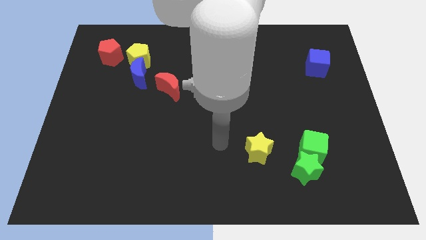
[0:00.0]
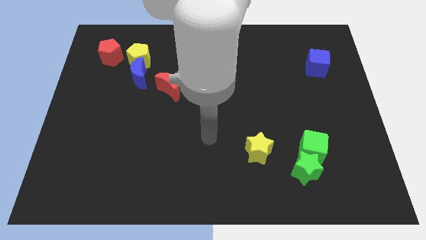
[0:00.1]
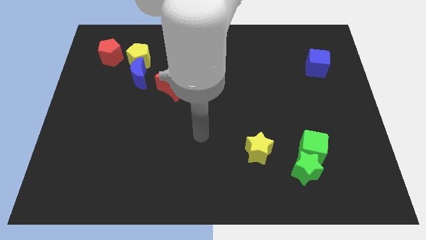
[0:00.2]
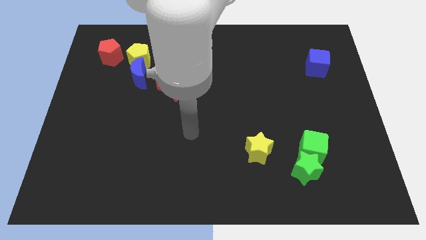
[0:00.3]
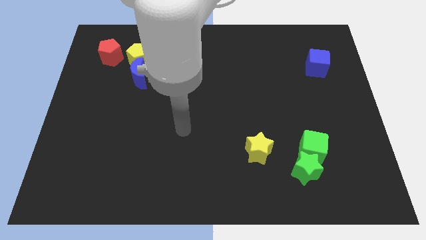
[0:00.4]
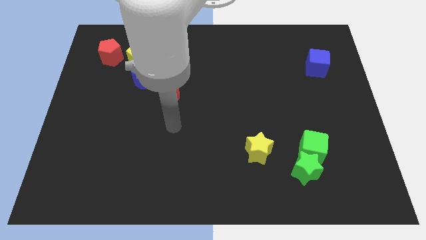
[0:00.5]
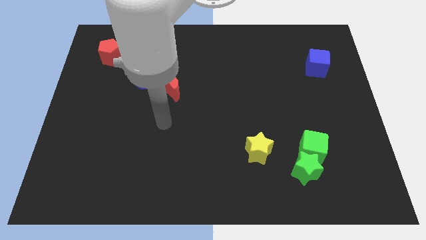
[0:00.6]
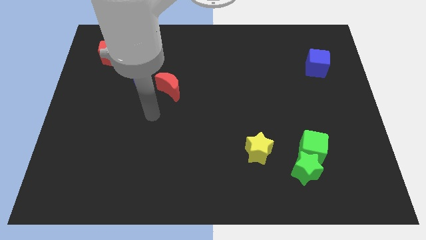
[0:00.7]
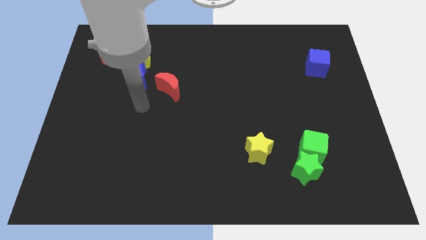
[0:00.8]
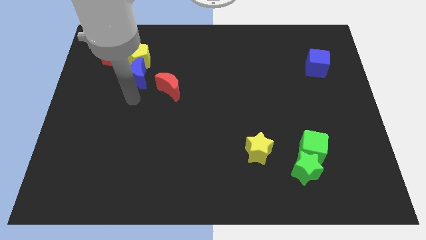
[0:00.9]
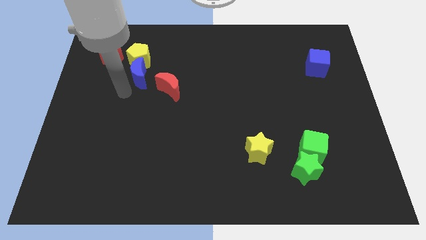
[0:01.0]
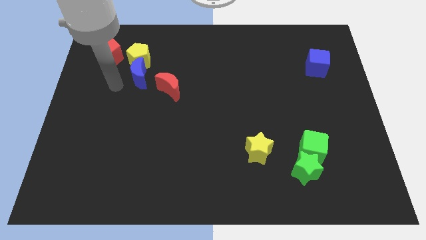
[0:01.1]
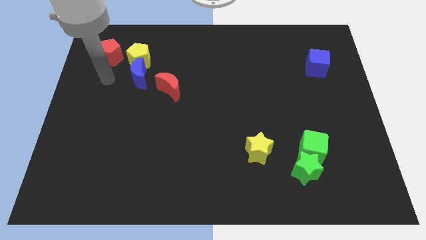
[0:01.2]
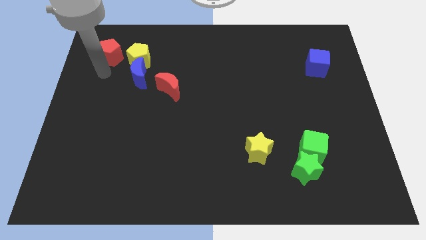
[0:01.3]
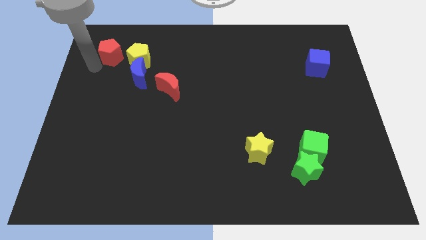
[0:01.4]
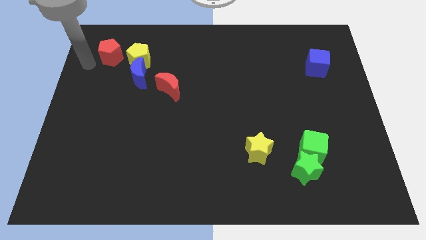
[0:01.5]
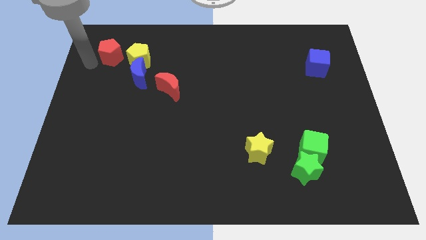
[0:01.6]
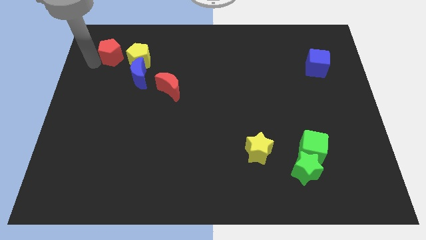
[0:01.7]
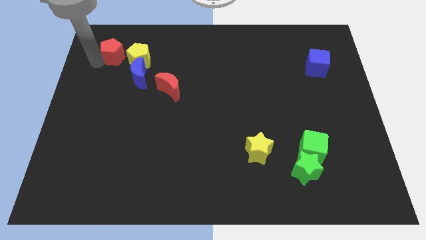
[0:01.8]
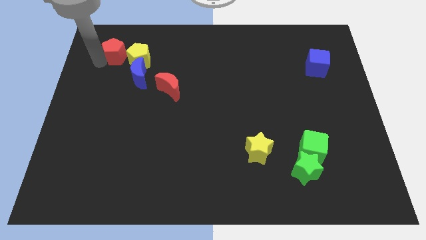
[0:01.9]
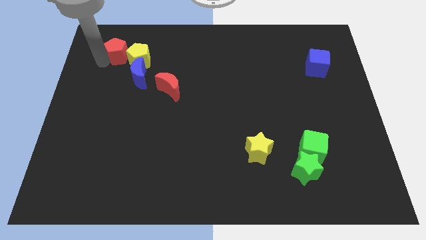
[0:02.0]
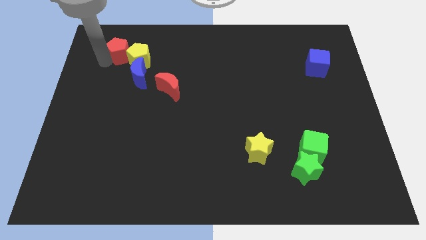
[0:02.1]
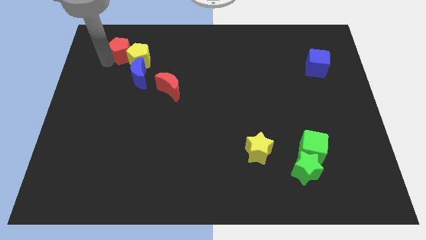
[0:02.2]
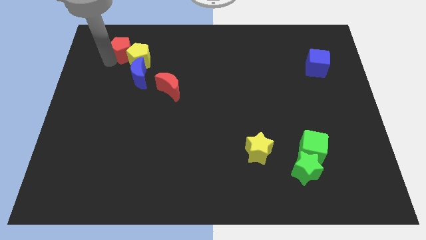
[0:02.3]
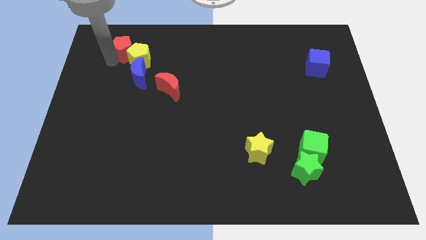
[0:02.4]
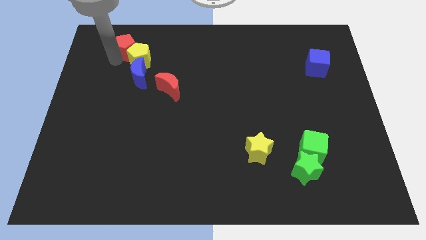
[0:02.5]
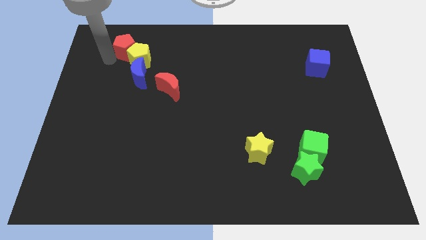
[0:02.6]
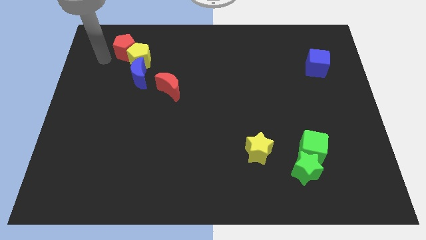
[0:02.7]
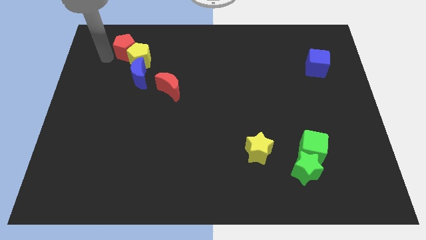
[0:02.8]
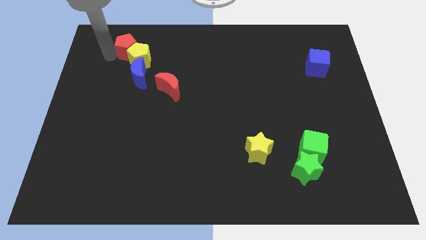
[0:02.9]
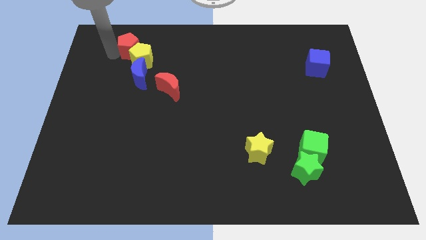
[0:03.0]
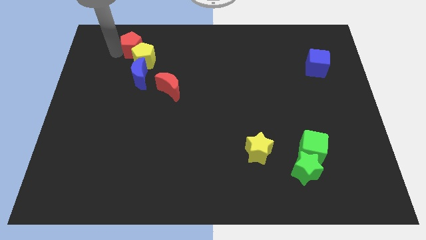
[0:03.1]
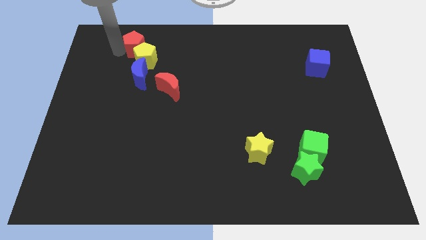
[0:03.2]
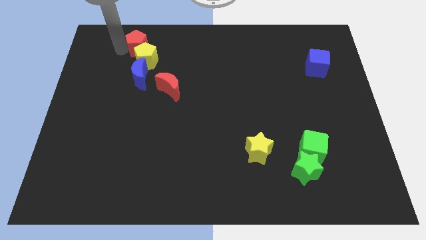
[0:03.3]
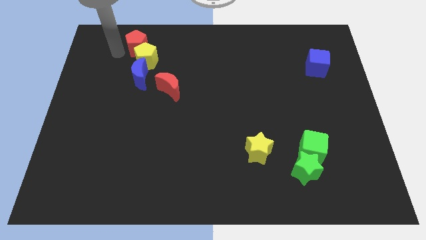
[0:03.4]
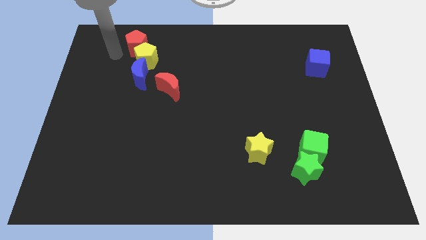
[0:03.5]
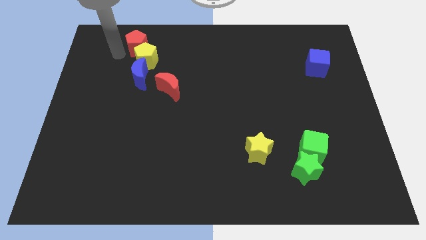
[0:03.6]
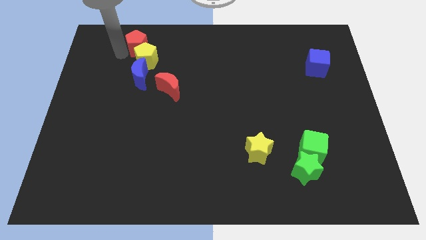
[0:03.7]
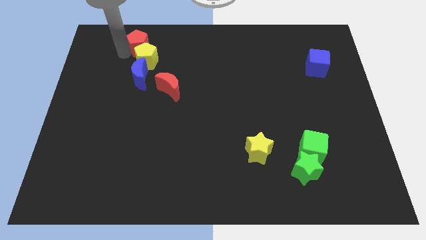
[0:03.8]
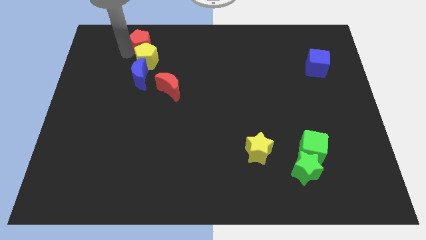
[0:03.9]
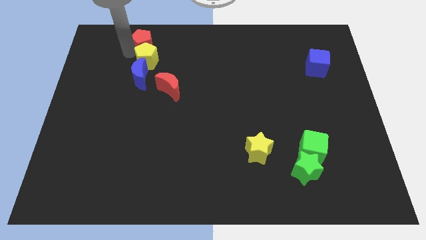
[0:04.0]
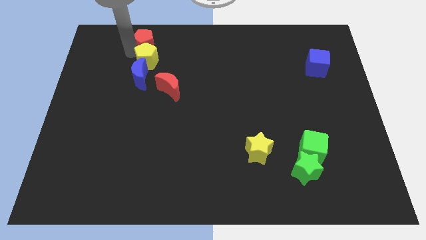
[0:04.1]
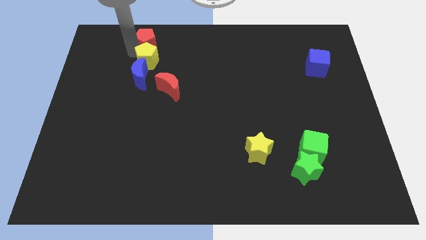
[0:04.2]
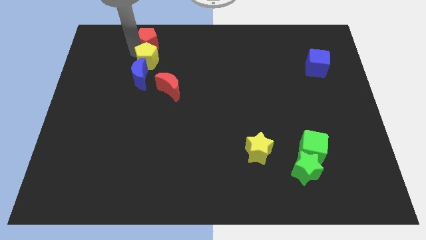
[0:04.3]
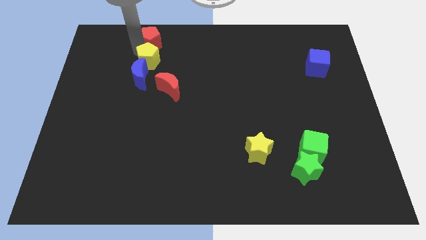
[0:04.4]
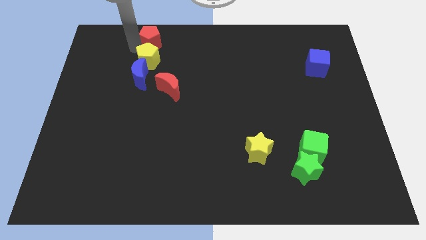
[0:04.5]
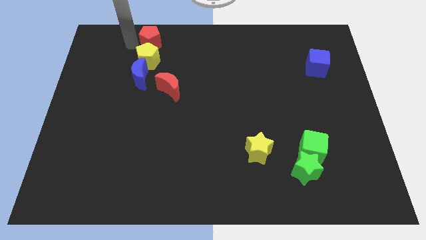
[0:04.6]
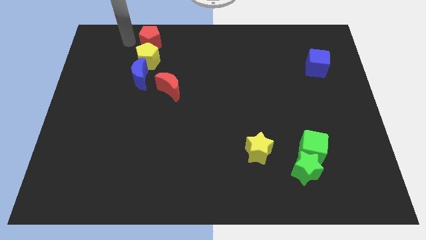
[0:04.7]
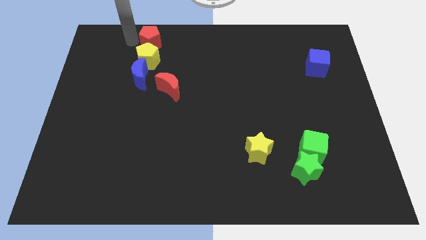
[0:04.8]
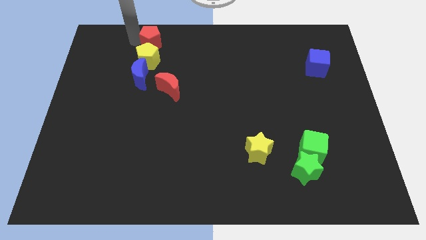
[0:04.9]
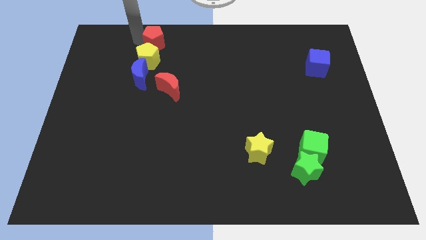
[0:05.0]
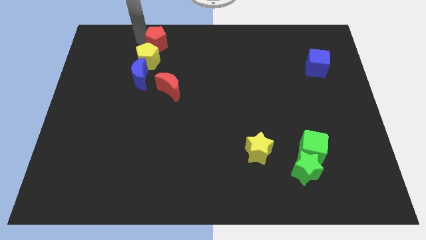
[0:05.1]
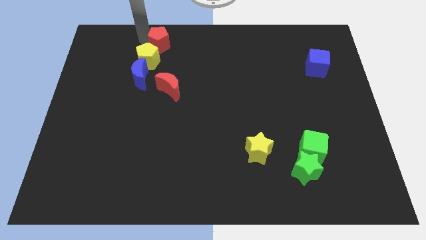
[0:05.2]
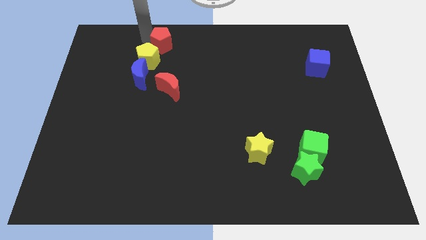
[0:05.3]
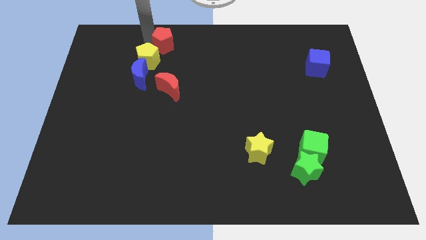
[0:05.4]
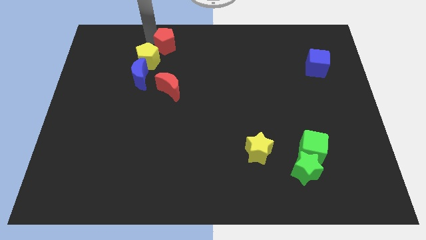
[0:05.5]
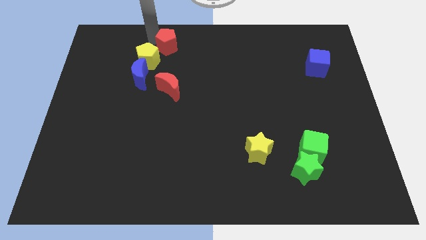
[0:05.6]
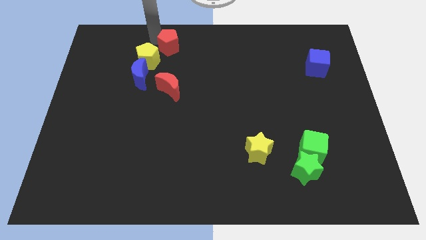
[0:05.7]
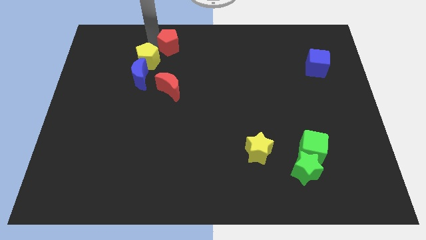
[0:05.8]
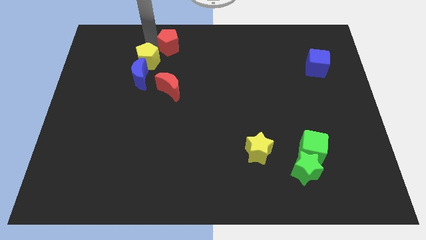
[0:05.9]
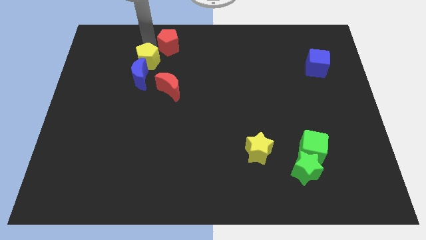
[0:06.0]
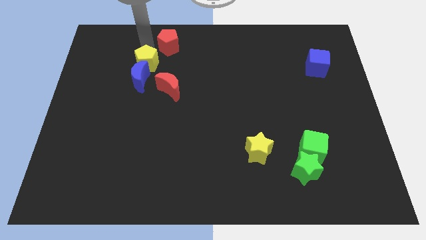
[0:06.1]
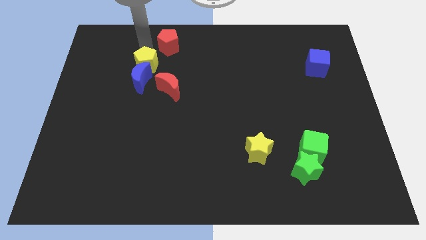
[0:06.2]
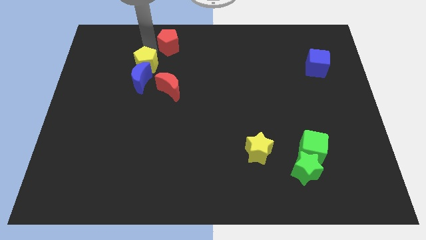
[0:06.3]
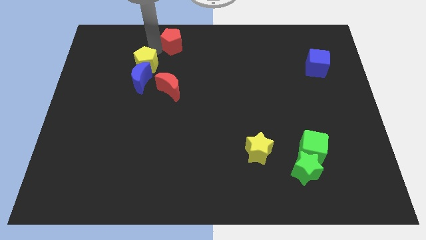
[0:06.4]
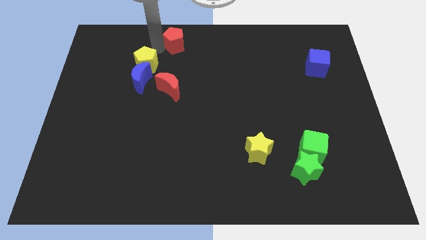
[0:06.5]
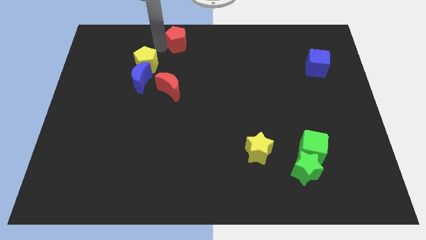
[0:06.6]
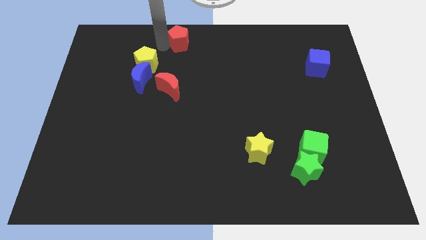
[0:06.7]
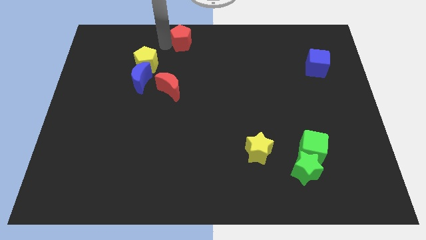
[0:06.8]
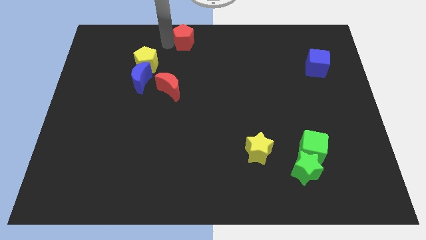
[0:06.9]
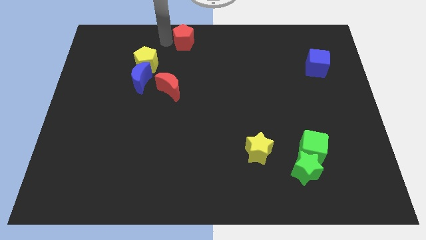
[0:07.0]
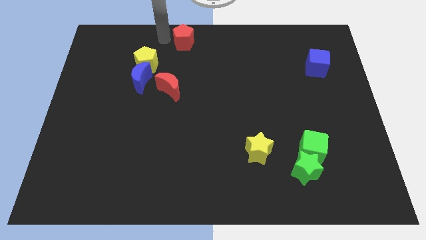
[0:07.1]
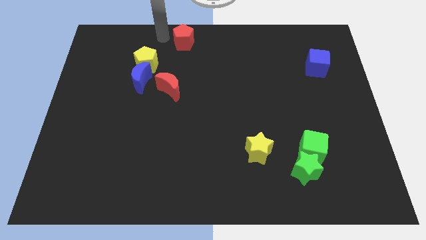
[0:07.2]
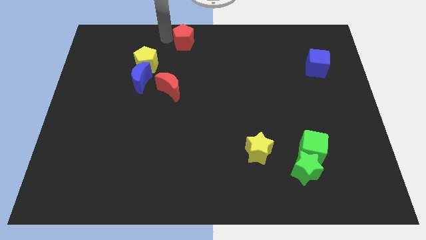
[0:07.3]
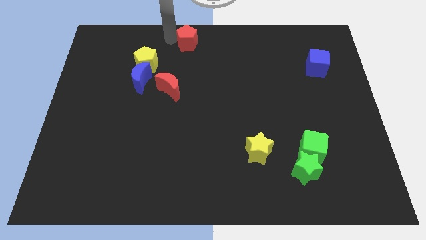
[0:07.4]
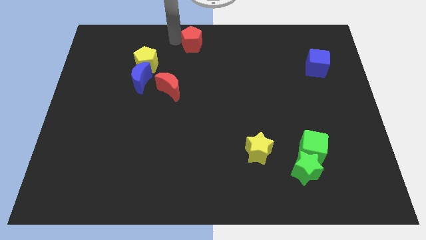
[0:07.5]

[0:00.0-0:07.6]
move the red pentagon right

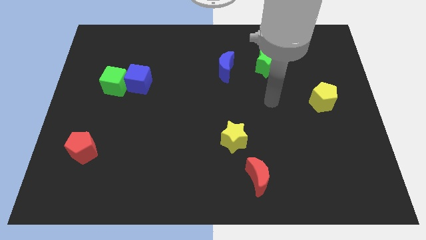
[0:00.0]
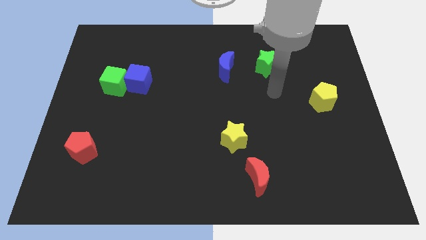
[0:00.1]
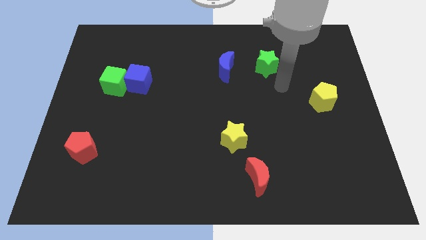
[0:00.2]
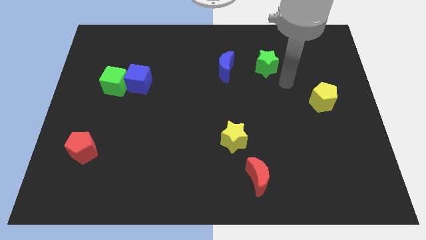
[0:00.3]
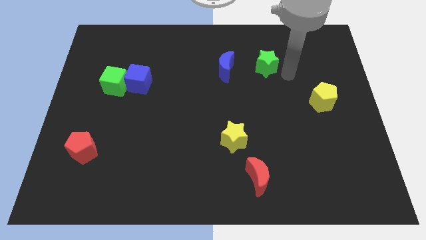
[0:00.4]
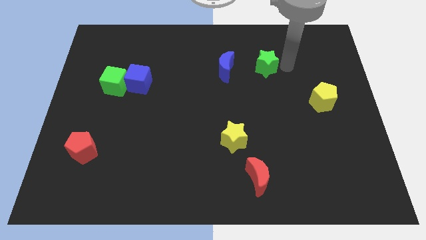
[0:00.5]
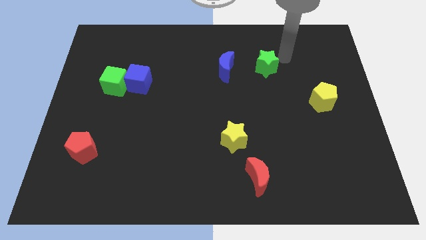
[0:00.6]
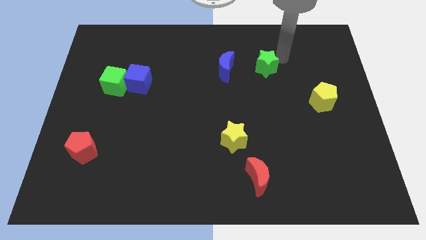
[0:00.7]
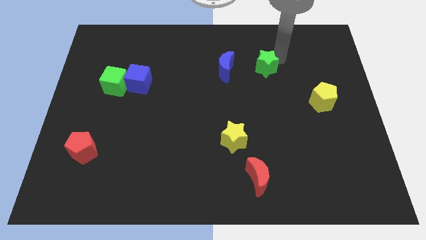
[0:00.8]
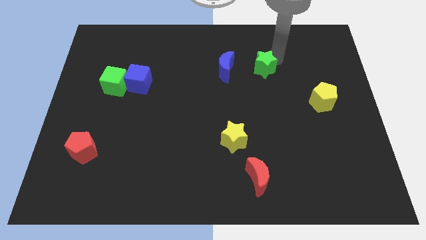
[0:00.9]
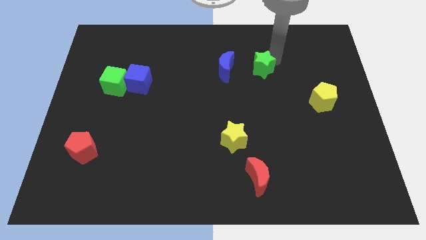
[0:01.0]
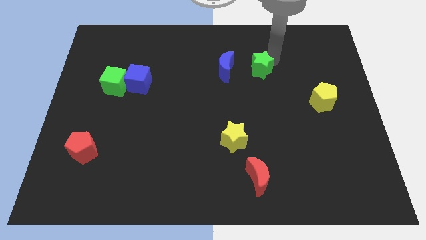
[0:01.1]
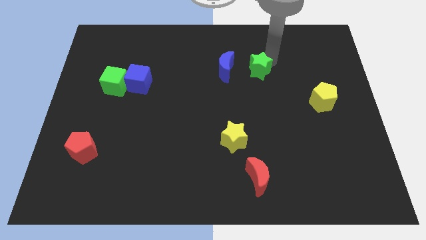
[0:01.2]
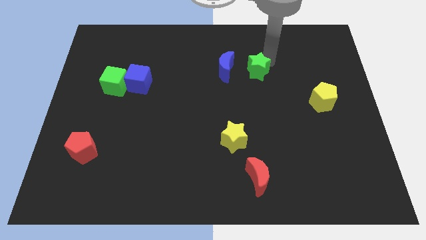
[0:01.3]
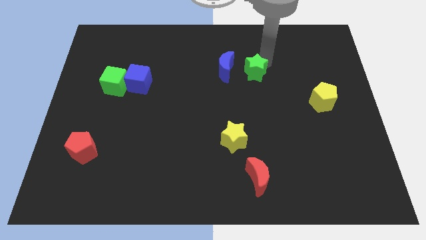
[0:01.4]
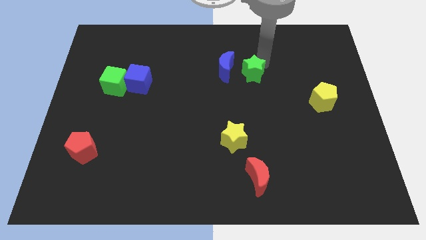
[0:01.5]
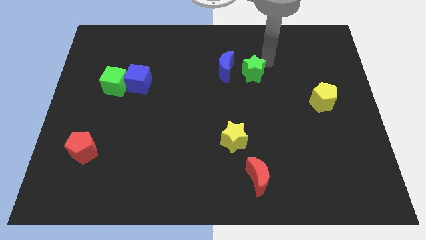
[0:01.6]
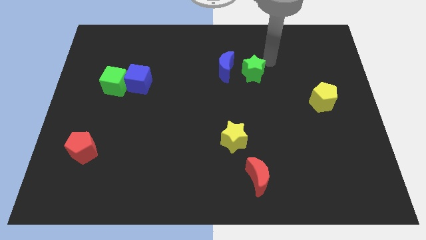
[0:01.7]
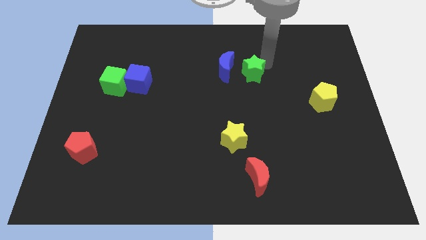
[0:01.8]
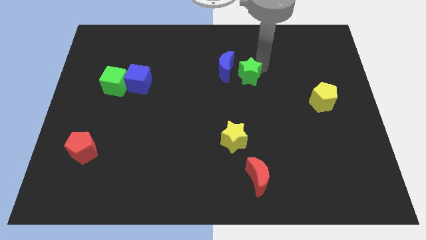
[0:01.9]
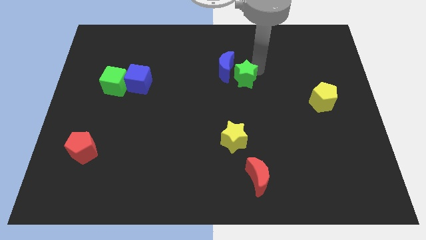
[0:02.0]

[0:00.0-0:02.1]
slightly move the green star down and to the left
